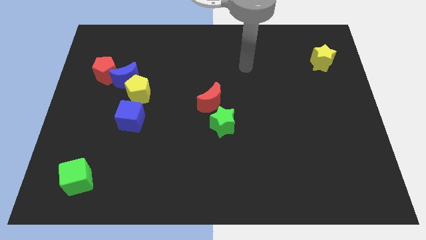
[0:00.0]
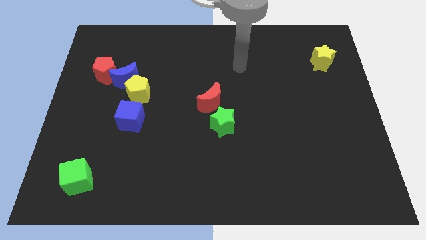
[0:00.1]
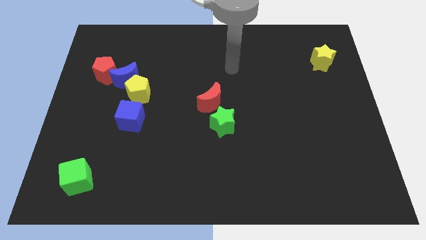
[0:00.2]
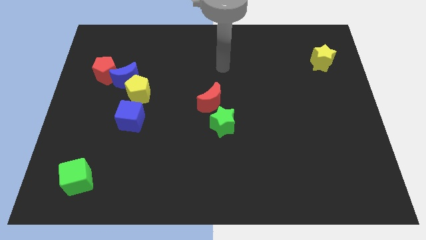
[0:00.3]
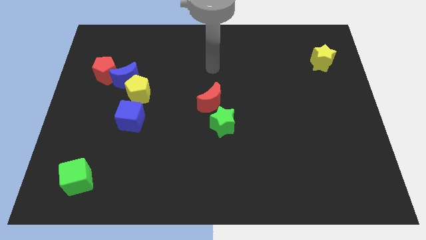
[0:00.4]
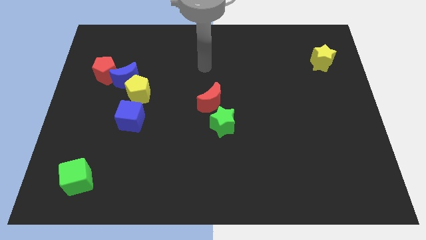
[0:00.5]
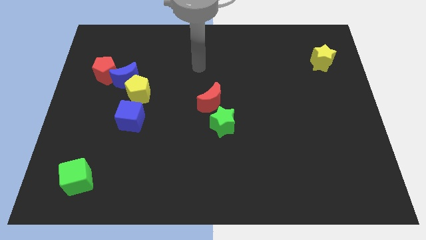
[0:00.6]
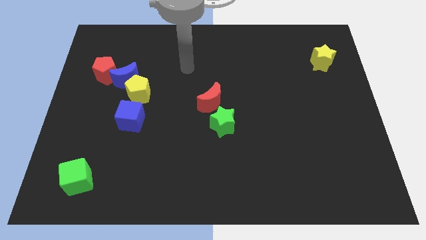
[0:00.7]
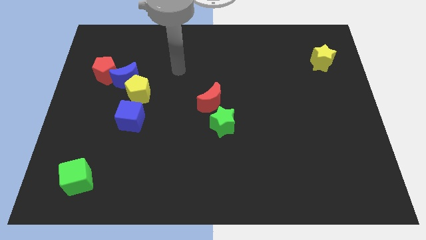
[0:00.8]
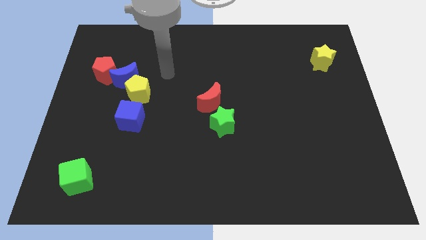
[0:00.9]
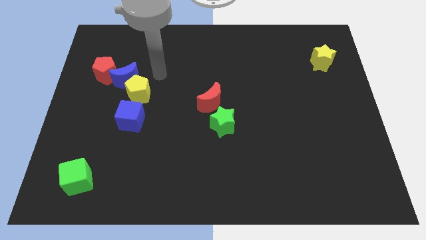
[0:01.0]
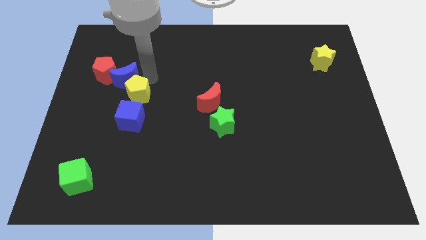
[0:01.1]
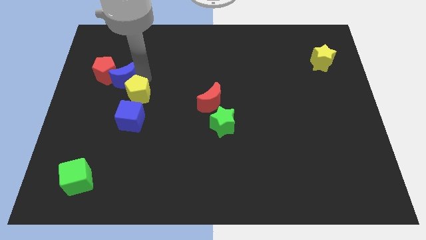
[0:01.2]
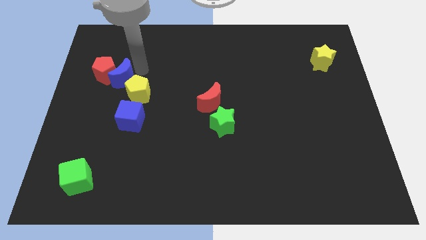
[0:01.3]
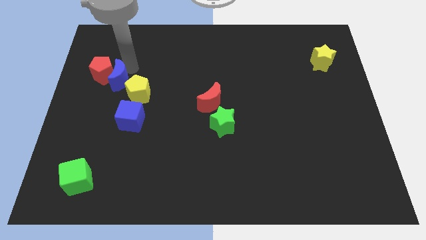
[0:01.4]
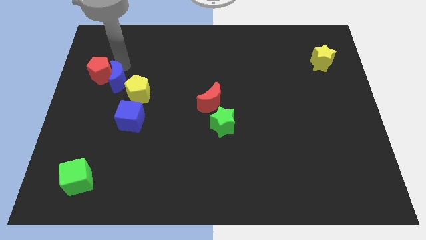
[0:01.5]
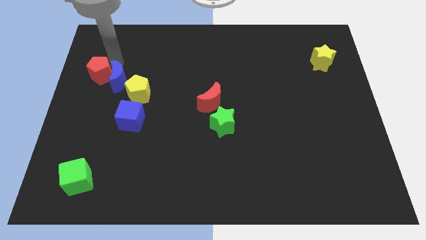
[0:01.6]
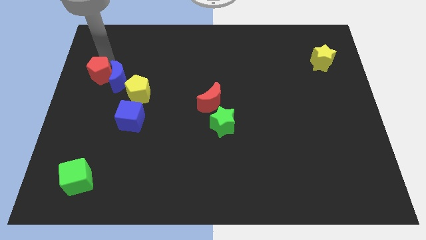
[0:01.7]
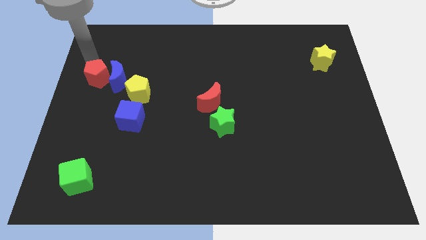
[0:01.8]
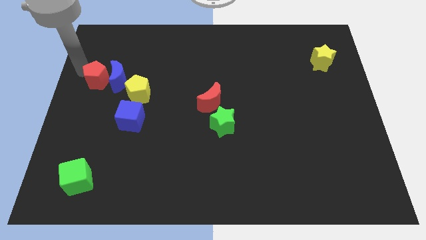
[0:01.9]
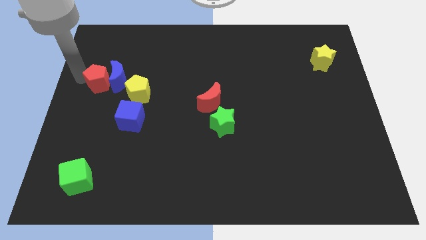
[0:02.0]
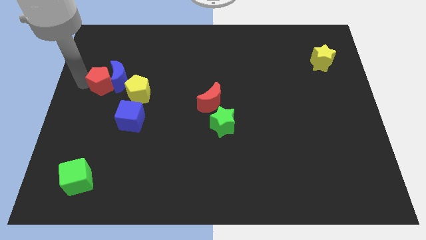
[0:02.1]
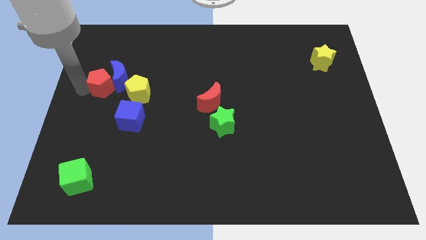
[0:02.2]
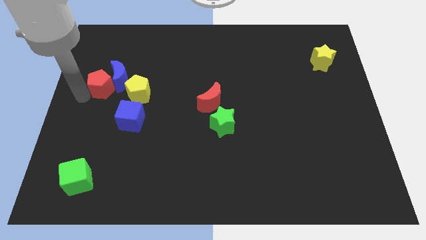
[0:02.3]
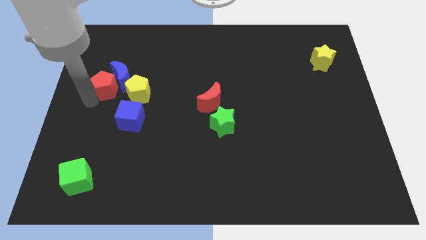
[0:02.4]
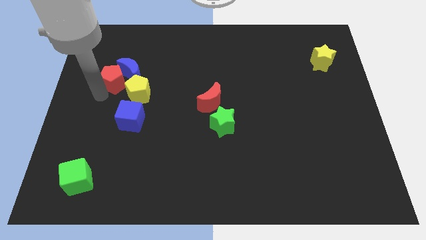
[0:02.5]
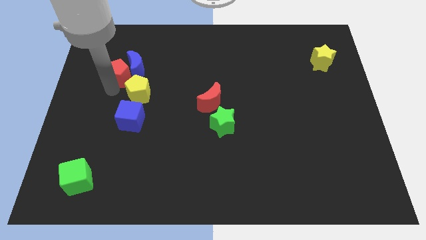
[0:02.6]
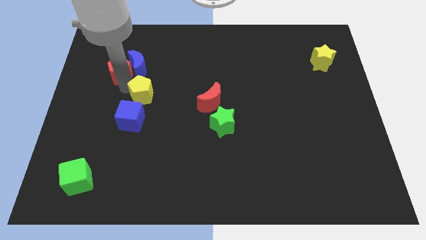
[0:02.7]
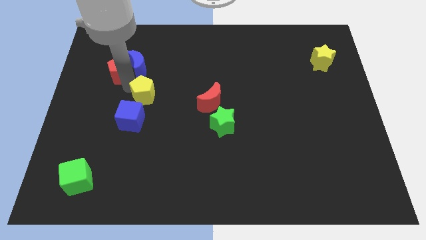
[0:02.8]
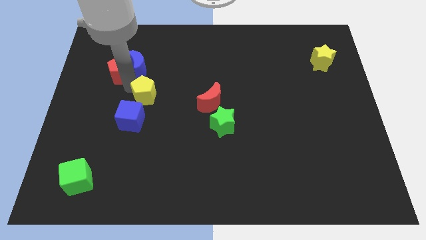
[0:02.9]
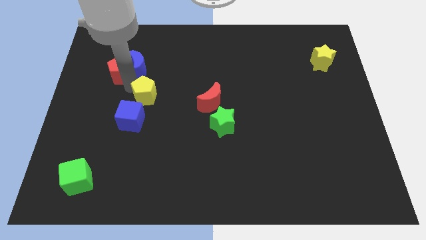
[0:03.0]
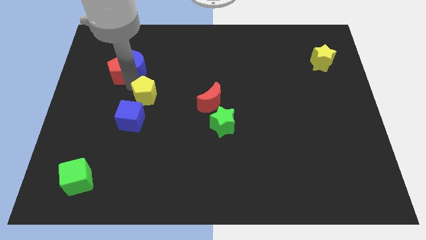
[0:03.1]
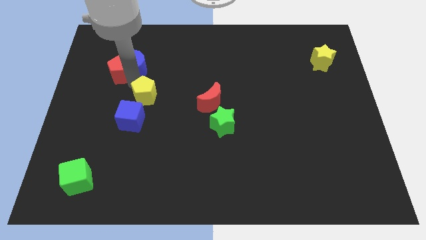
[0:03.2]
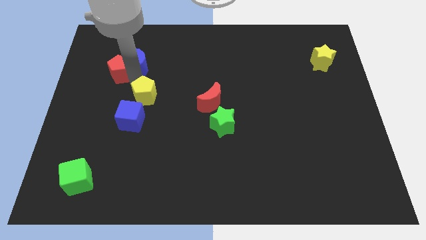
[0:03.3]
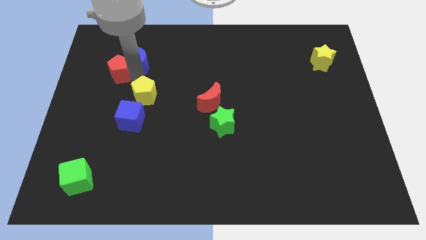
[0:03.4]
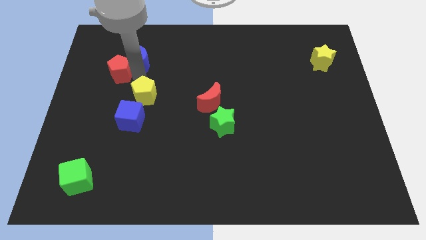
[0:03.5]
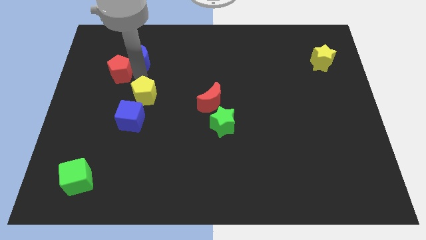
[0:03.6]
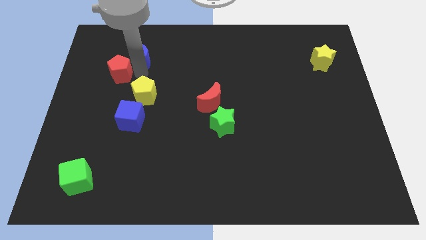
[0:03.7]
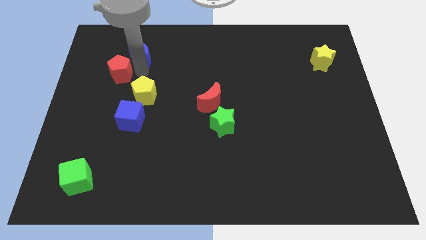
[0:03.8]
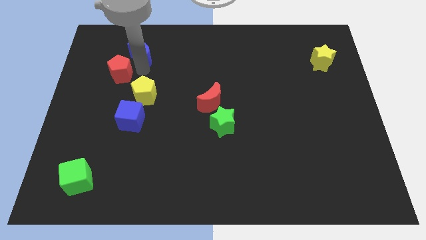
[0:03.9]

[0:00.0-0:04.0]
pull the blue moon apart from the yellow pentagon and red pentagon

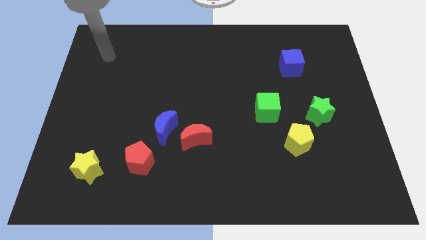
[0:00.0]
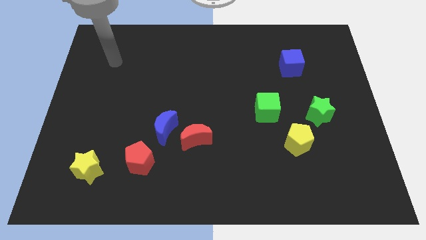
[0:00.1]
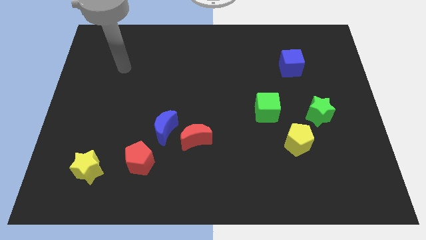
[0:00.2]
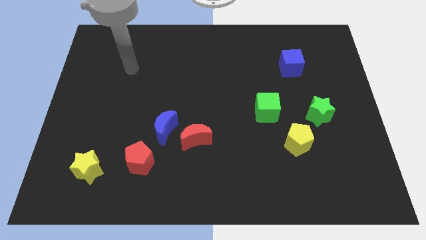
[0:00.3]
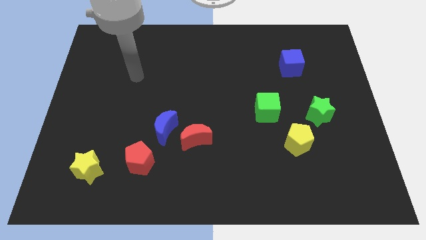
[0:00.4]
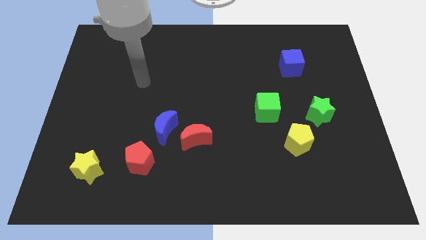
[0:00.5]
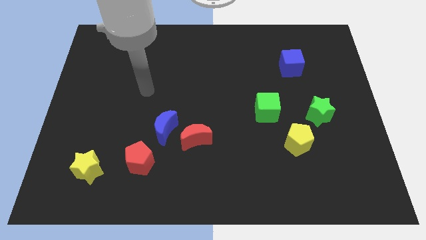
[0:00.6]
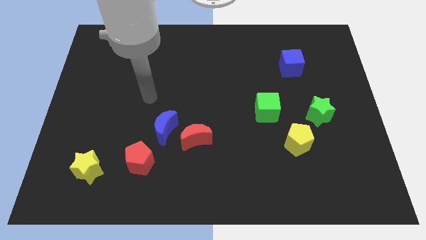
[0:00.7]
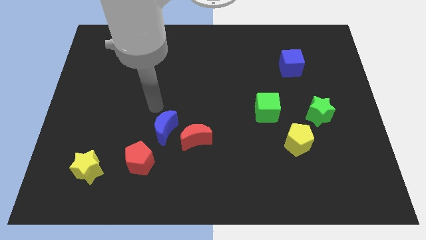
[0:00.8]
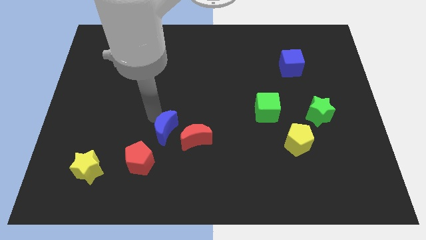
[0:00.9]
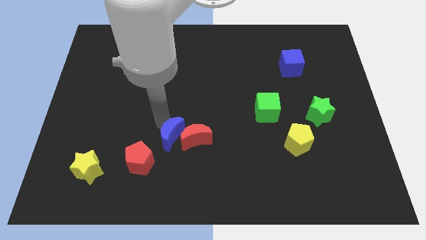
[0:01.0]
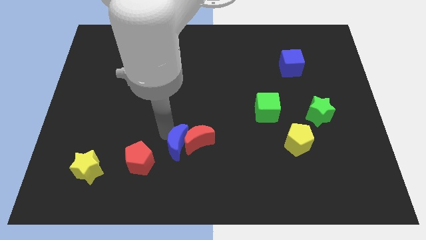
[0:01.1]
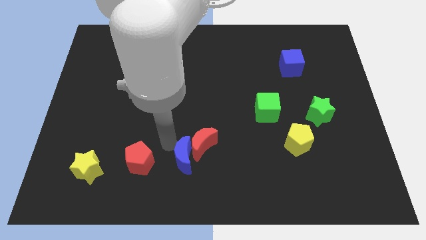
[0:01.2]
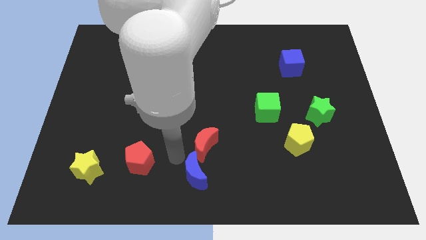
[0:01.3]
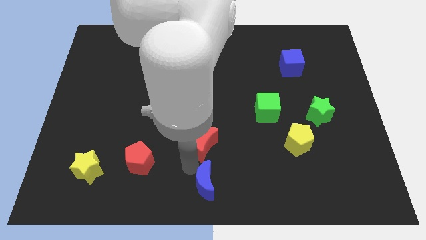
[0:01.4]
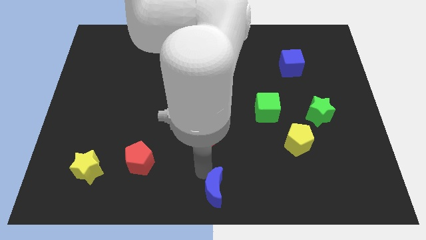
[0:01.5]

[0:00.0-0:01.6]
separate the red moon from the blue moon

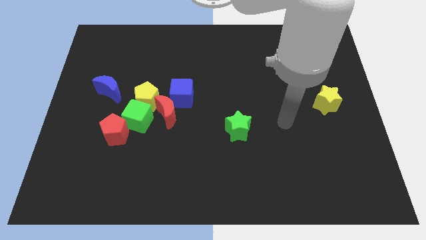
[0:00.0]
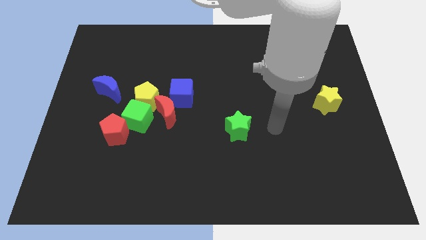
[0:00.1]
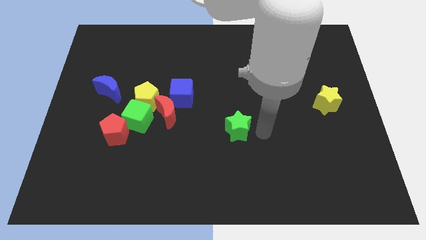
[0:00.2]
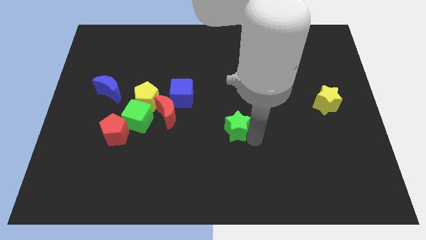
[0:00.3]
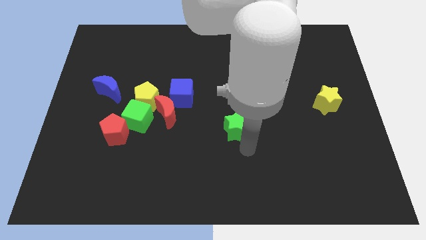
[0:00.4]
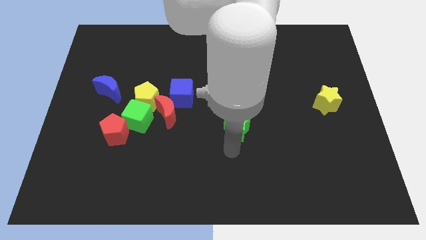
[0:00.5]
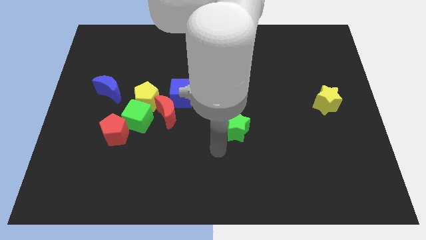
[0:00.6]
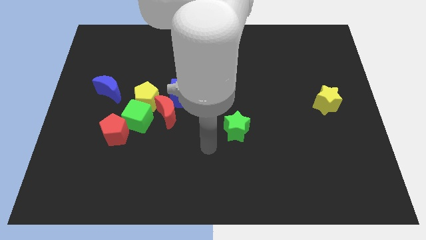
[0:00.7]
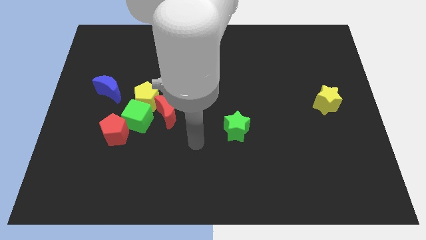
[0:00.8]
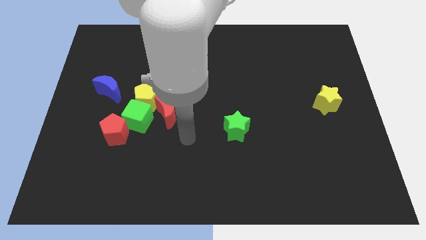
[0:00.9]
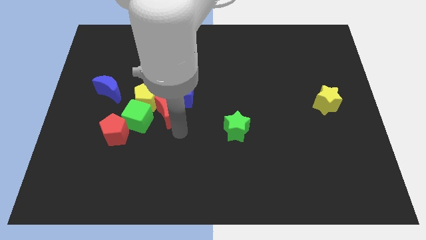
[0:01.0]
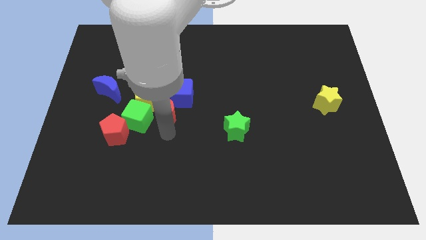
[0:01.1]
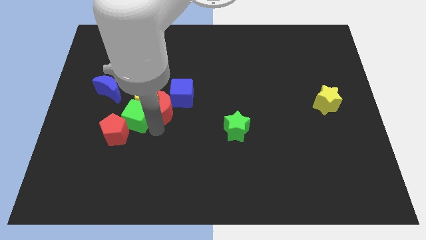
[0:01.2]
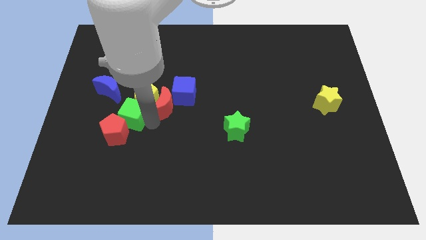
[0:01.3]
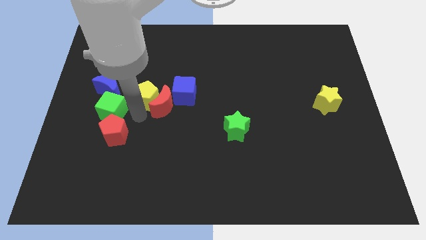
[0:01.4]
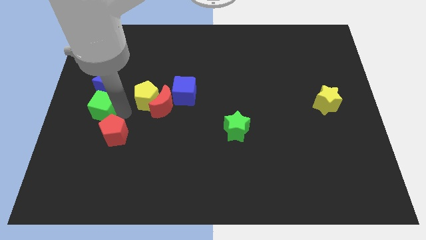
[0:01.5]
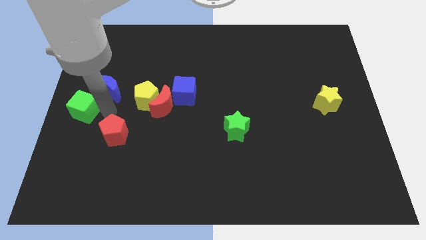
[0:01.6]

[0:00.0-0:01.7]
separate the red pentagon from the green cube

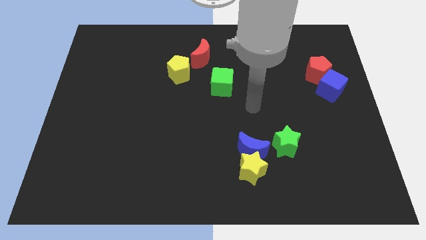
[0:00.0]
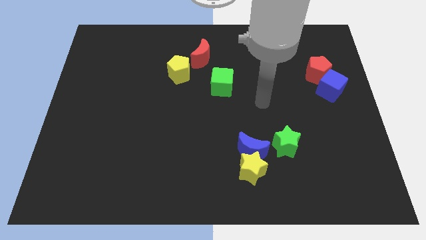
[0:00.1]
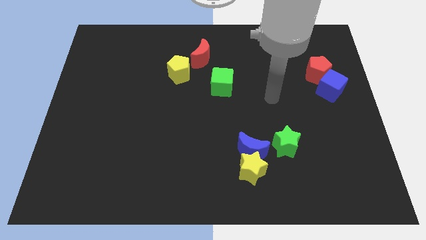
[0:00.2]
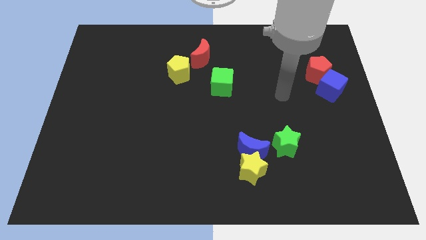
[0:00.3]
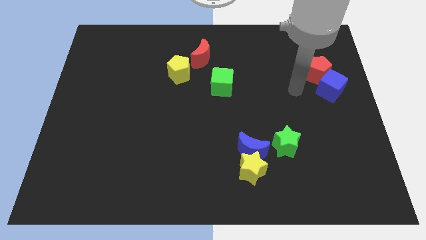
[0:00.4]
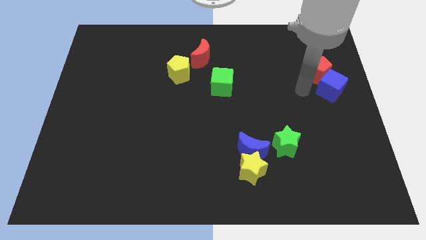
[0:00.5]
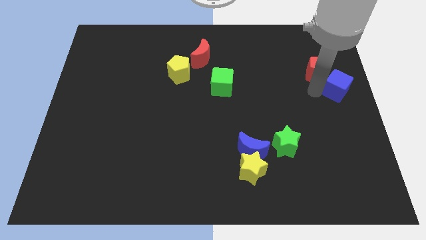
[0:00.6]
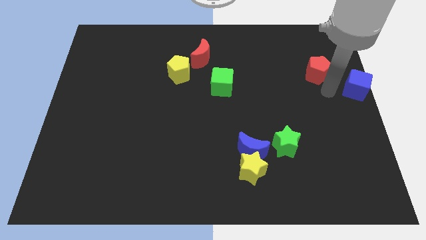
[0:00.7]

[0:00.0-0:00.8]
separate the red pentagon from the blue cube

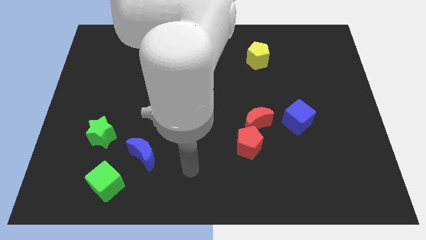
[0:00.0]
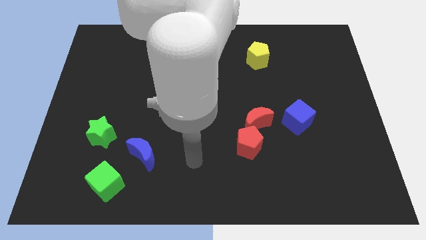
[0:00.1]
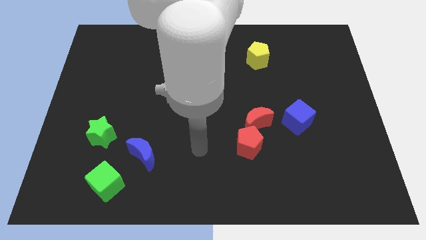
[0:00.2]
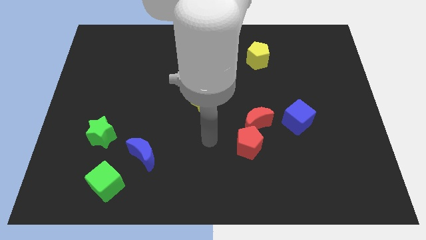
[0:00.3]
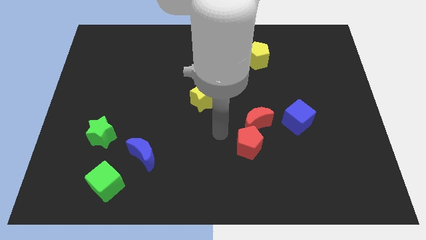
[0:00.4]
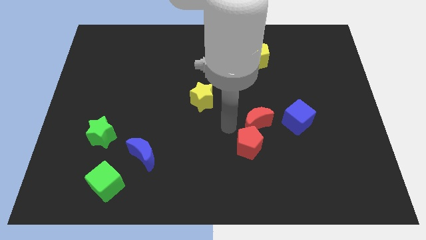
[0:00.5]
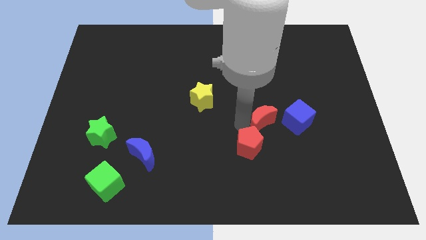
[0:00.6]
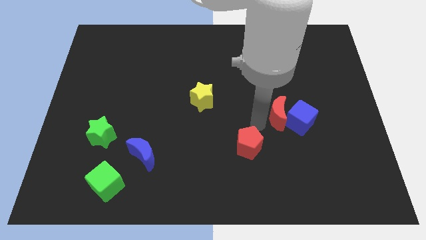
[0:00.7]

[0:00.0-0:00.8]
move the red pentagon away from the red moon

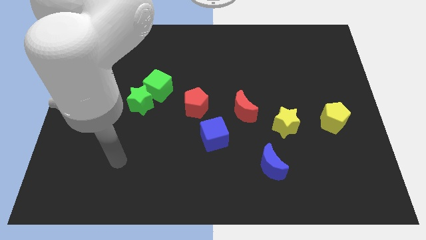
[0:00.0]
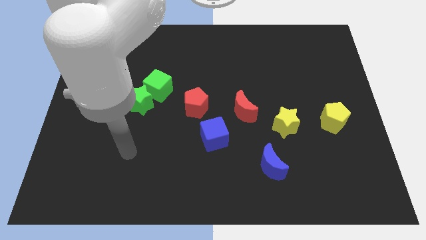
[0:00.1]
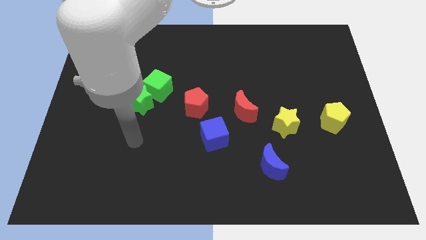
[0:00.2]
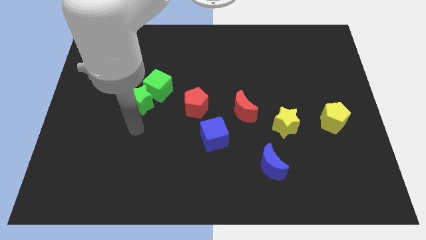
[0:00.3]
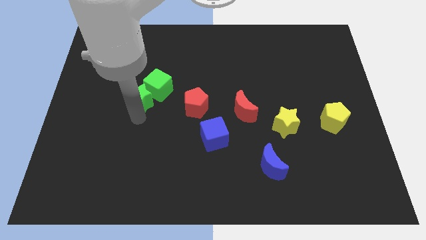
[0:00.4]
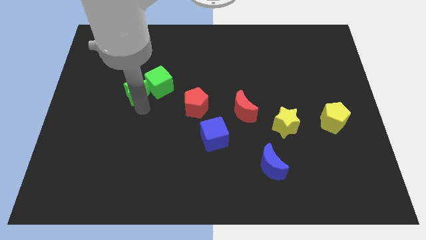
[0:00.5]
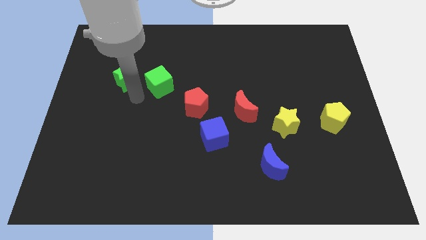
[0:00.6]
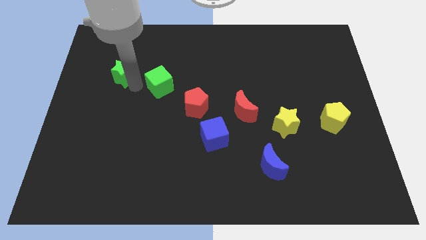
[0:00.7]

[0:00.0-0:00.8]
separate the green cube from the green star
